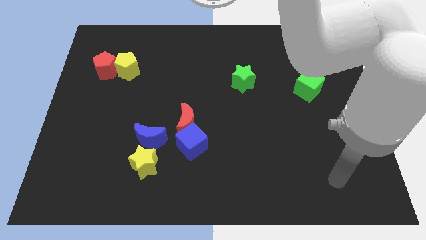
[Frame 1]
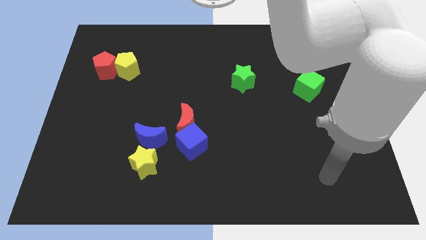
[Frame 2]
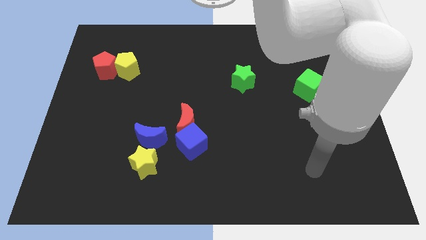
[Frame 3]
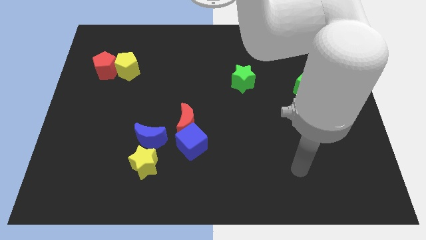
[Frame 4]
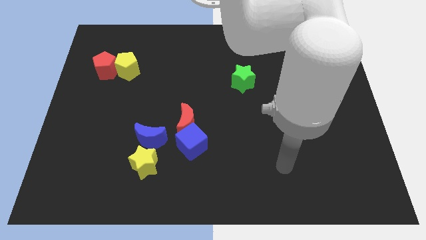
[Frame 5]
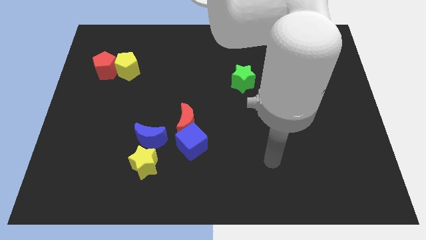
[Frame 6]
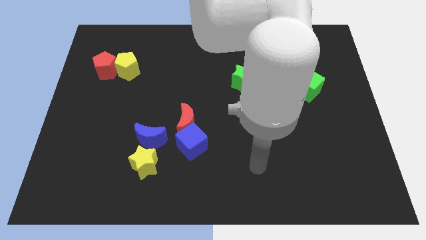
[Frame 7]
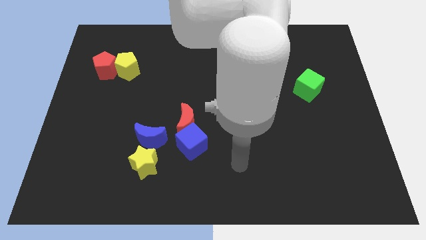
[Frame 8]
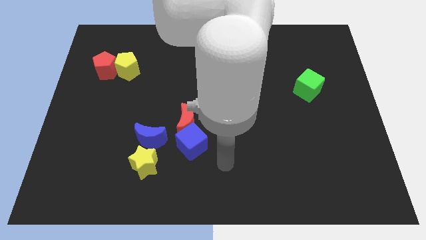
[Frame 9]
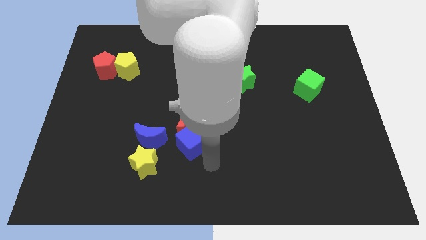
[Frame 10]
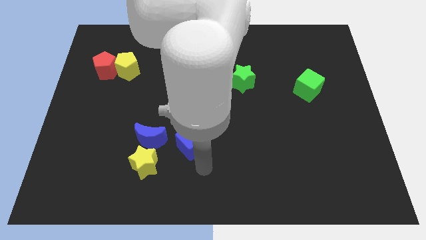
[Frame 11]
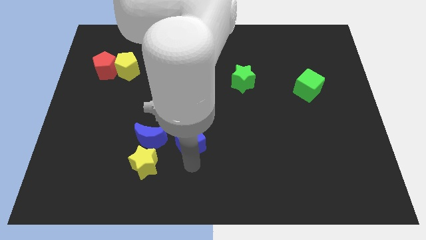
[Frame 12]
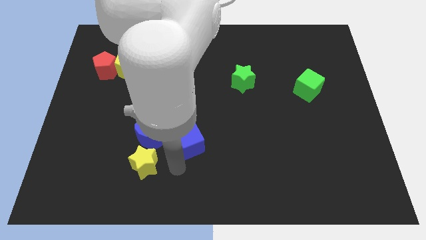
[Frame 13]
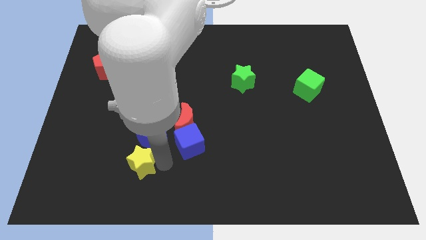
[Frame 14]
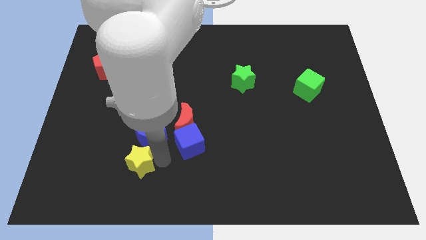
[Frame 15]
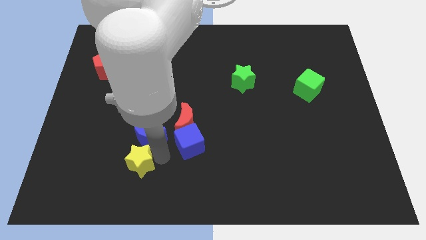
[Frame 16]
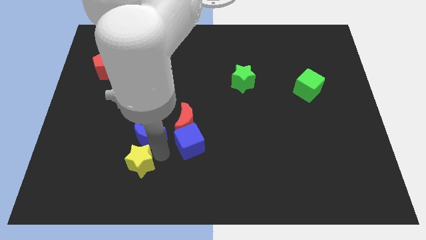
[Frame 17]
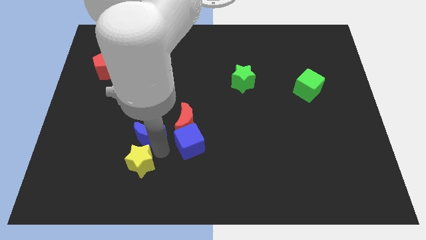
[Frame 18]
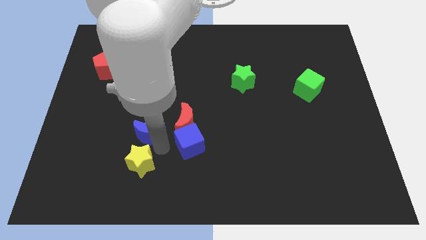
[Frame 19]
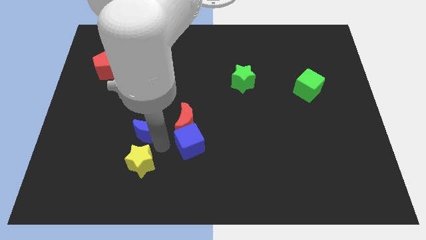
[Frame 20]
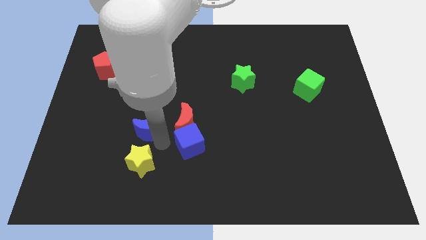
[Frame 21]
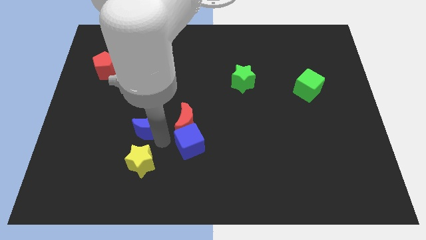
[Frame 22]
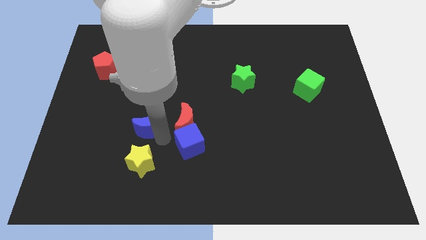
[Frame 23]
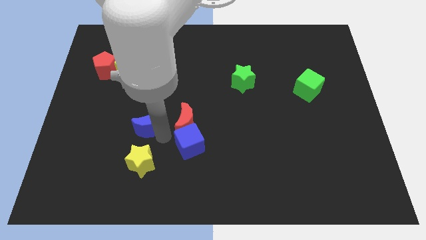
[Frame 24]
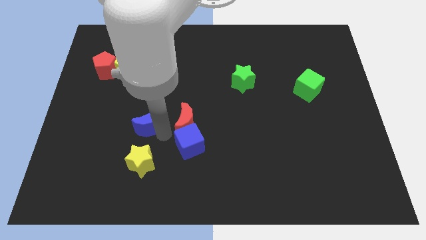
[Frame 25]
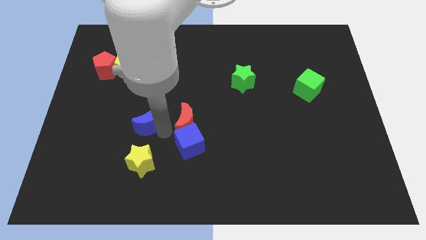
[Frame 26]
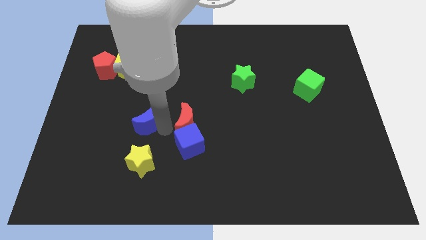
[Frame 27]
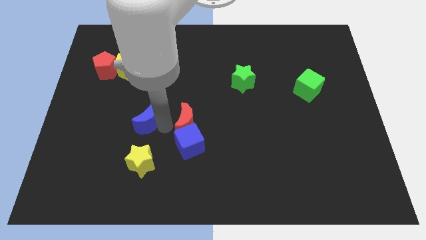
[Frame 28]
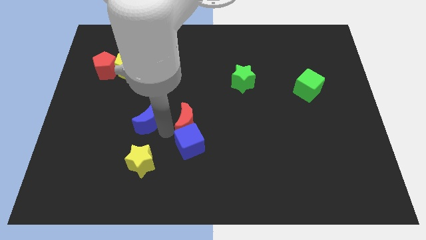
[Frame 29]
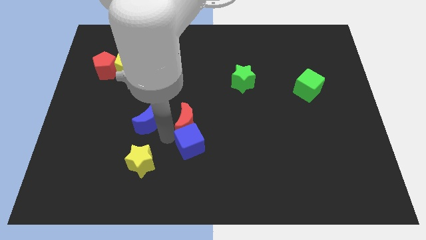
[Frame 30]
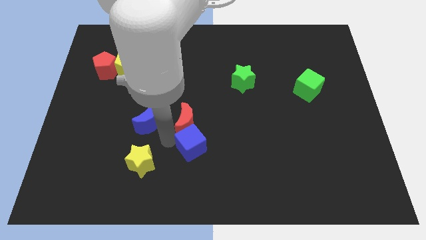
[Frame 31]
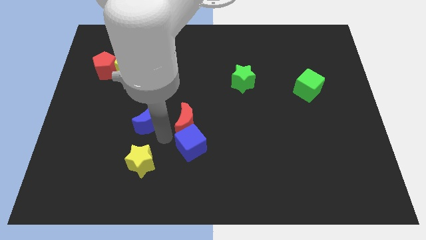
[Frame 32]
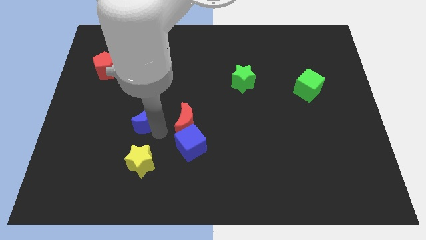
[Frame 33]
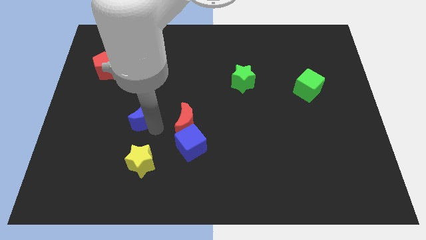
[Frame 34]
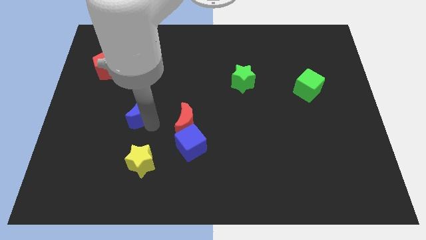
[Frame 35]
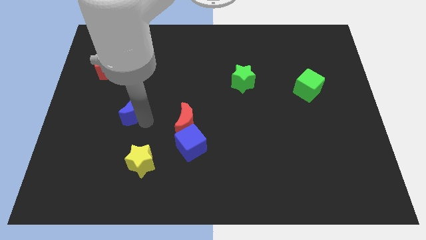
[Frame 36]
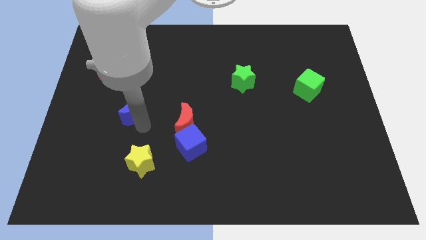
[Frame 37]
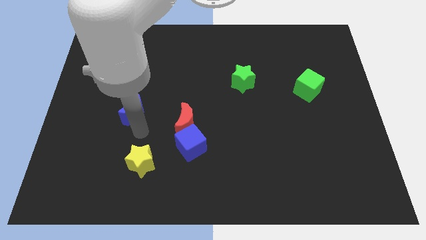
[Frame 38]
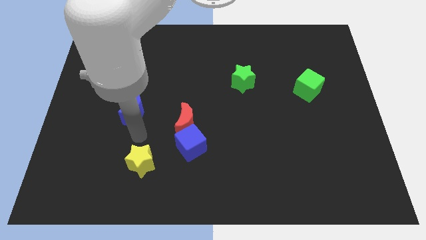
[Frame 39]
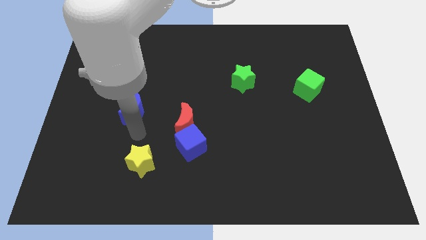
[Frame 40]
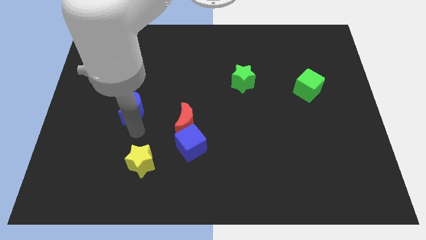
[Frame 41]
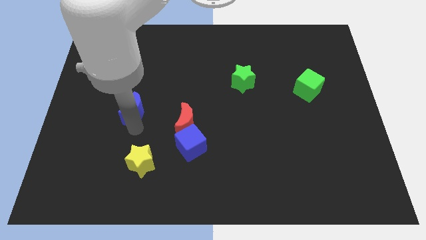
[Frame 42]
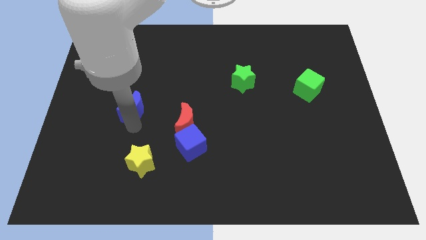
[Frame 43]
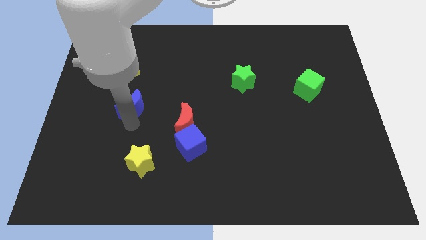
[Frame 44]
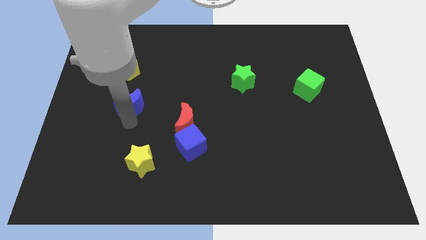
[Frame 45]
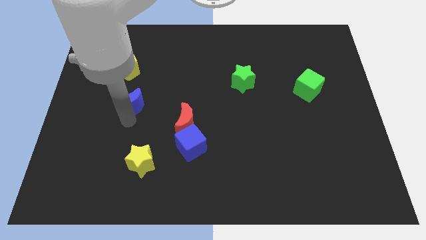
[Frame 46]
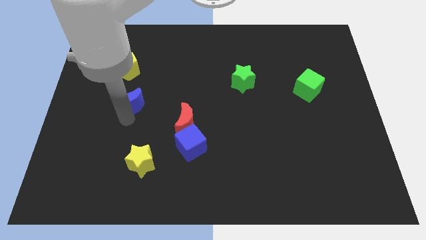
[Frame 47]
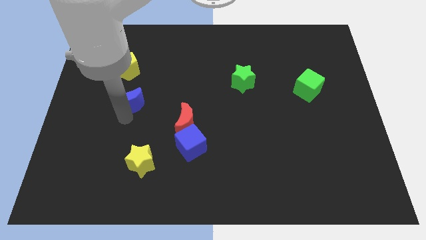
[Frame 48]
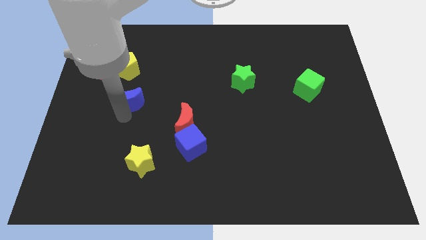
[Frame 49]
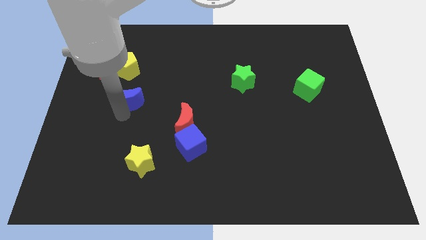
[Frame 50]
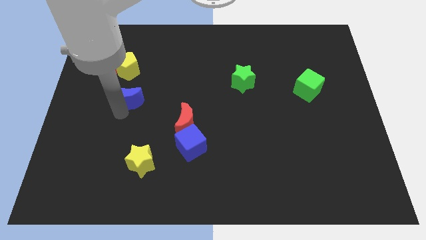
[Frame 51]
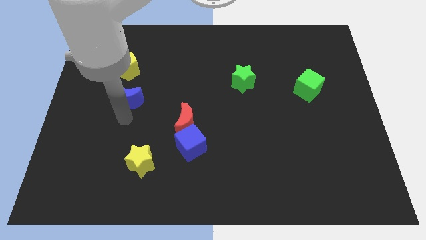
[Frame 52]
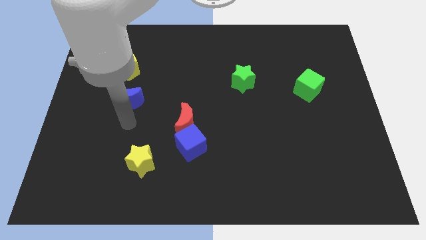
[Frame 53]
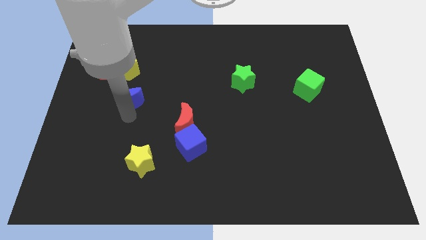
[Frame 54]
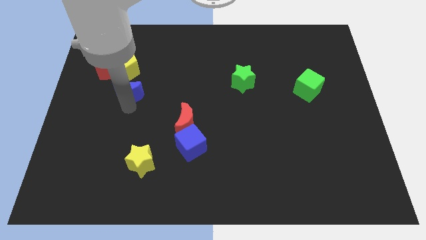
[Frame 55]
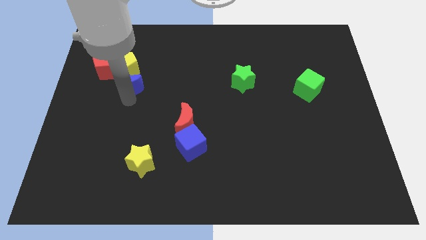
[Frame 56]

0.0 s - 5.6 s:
put the blue moon towards the yellow pentagon

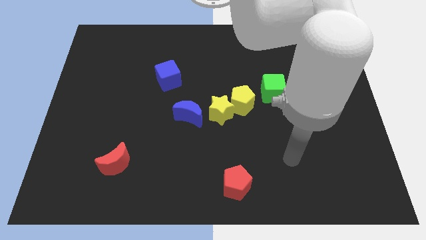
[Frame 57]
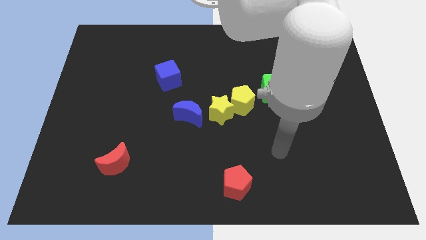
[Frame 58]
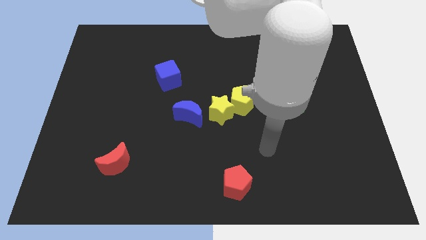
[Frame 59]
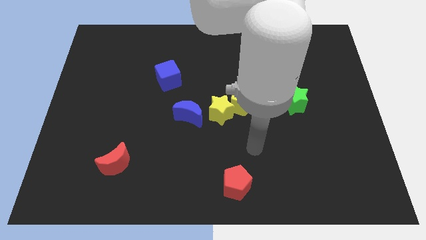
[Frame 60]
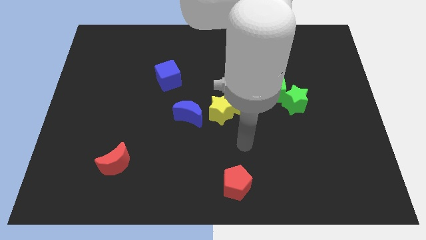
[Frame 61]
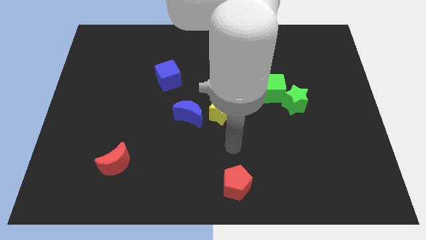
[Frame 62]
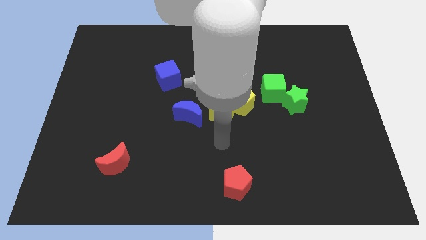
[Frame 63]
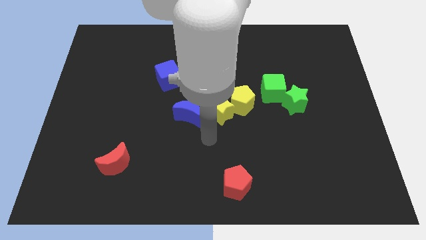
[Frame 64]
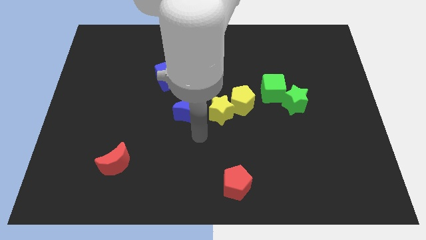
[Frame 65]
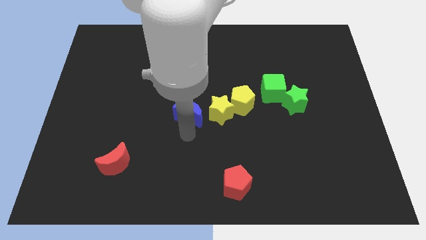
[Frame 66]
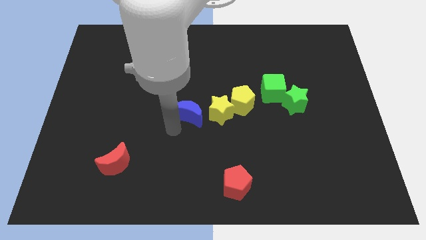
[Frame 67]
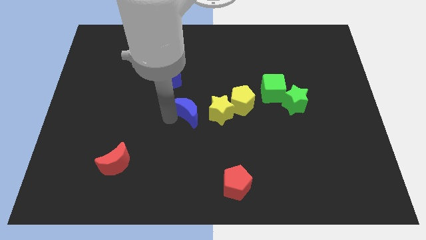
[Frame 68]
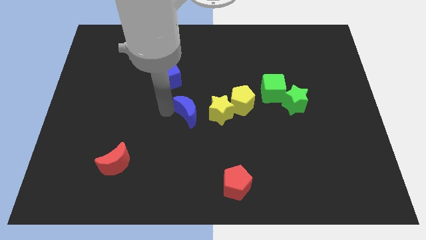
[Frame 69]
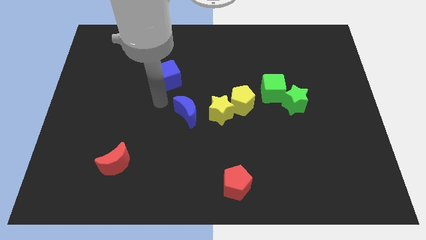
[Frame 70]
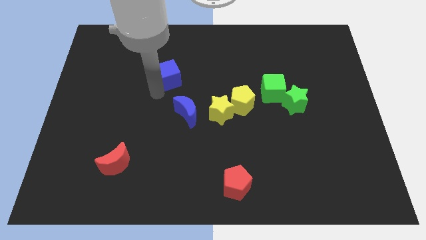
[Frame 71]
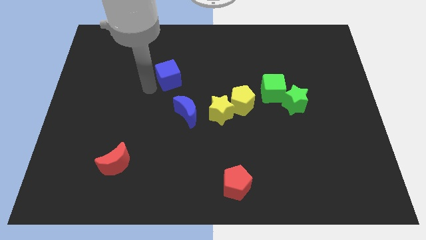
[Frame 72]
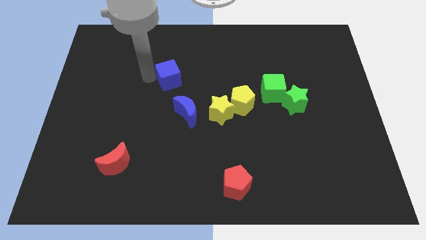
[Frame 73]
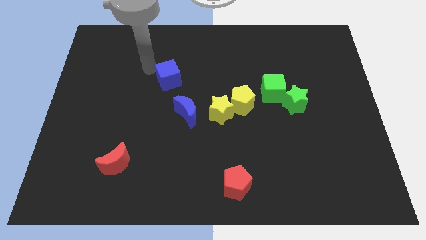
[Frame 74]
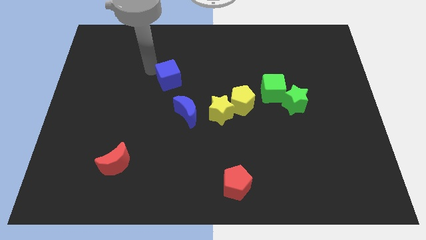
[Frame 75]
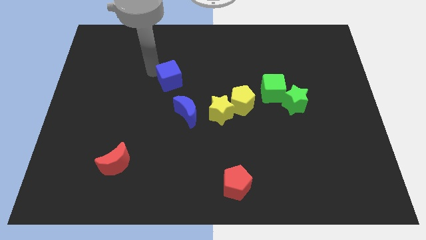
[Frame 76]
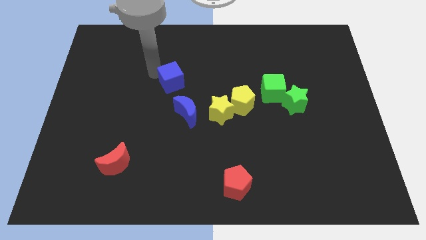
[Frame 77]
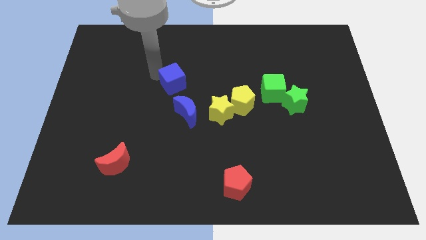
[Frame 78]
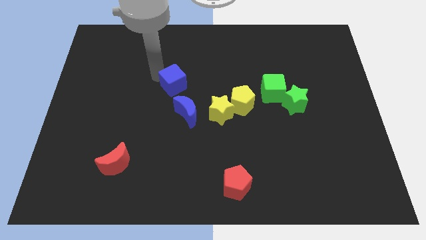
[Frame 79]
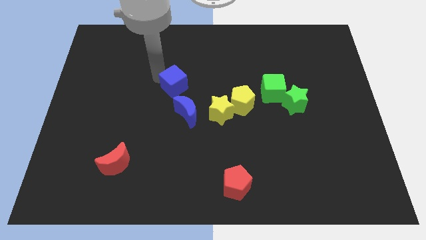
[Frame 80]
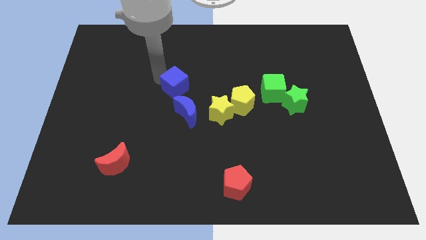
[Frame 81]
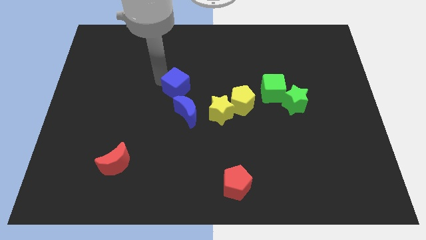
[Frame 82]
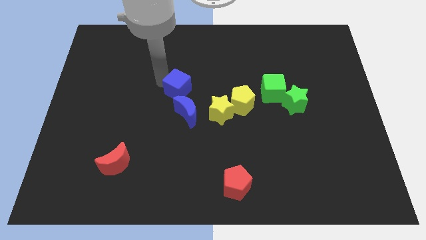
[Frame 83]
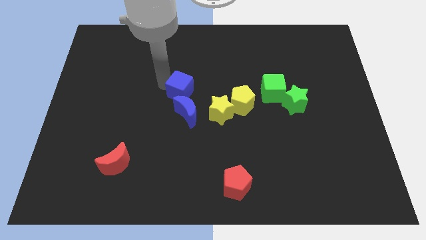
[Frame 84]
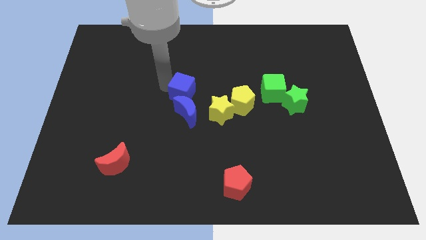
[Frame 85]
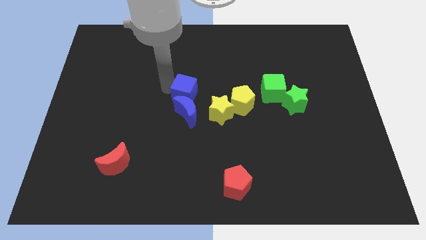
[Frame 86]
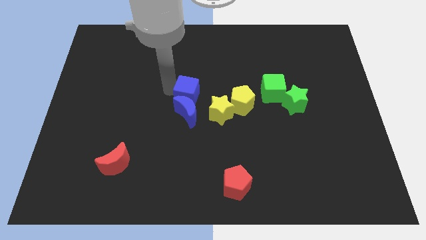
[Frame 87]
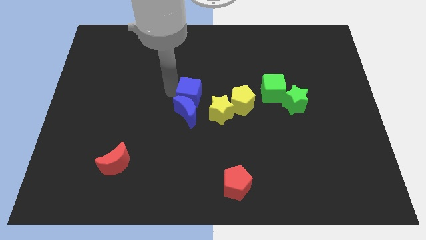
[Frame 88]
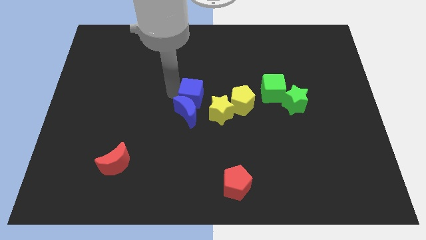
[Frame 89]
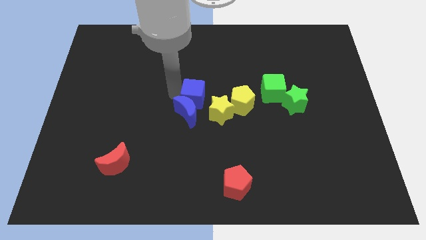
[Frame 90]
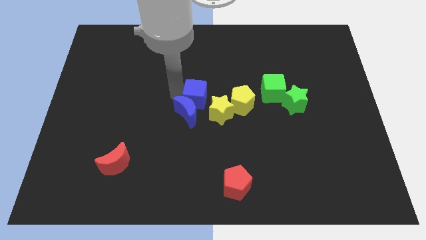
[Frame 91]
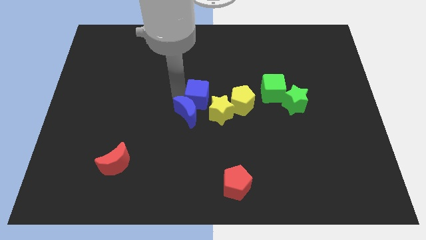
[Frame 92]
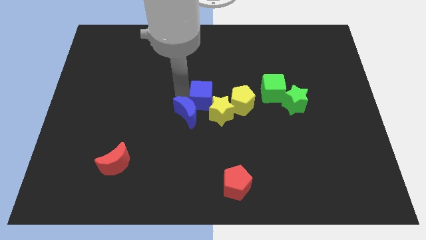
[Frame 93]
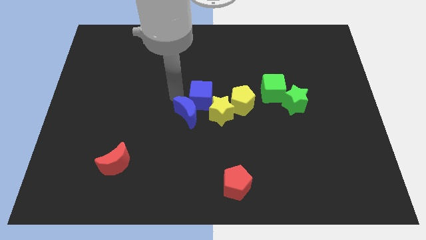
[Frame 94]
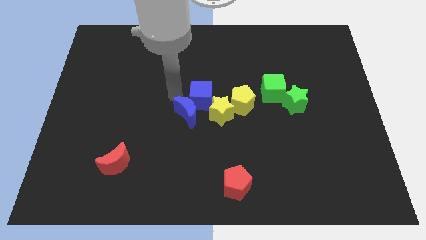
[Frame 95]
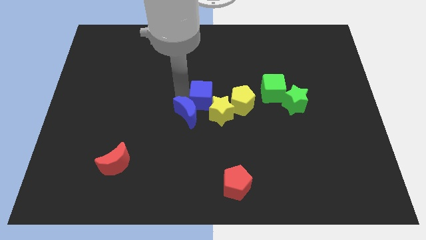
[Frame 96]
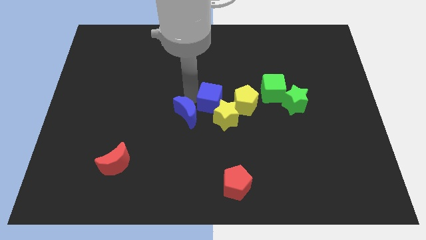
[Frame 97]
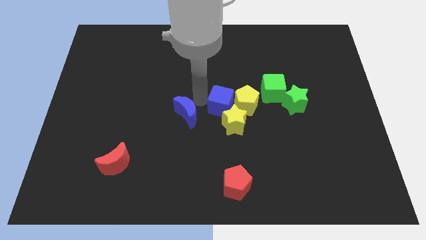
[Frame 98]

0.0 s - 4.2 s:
move the blue cube to the yellow pentagon
